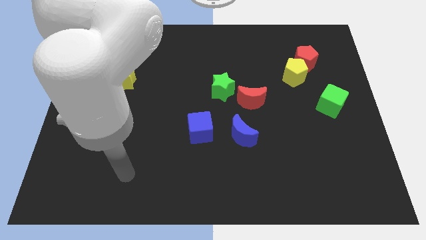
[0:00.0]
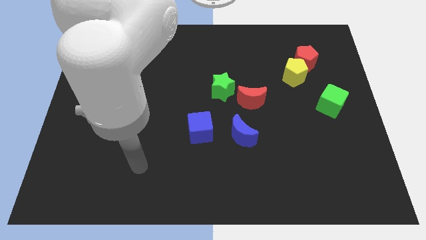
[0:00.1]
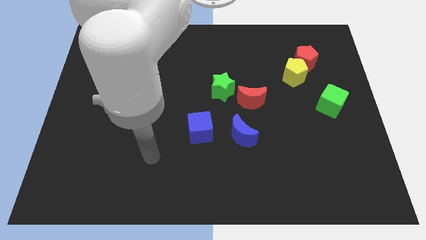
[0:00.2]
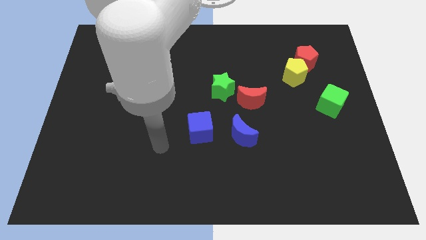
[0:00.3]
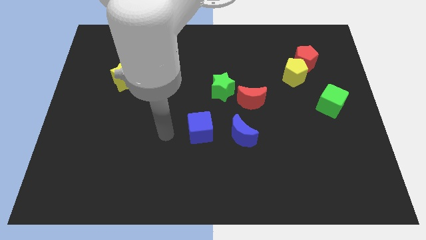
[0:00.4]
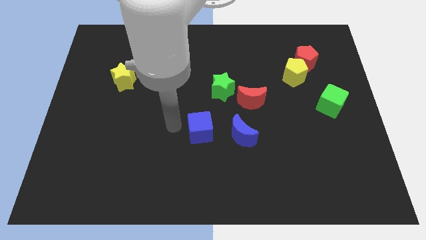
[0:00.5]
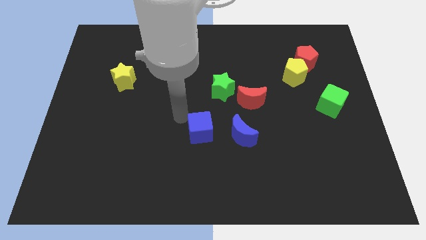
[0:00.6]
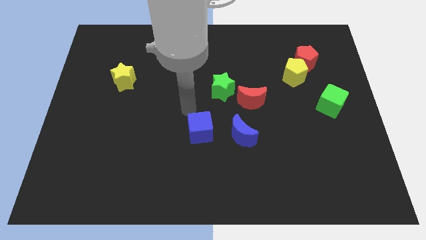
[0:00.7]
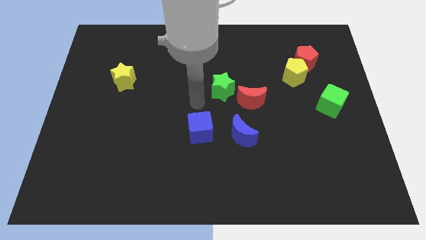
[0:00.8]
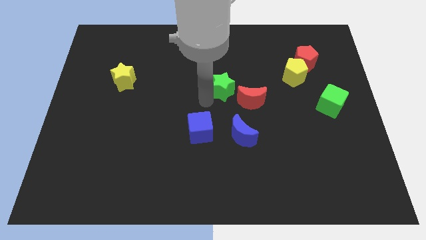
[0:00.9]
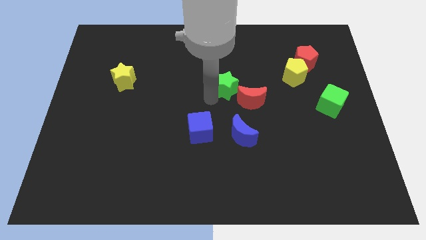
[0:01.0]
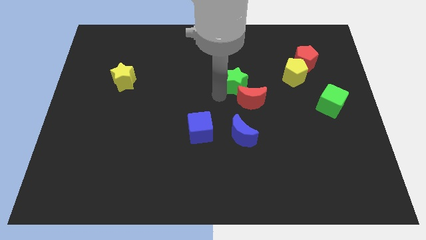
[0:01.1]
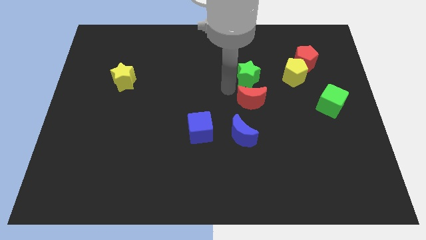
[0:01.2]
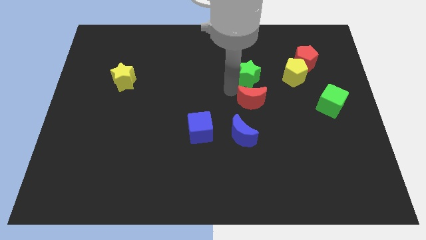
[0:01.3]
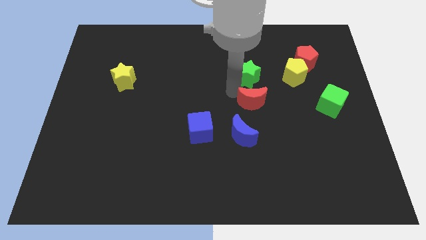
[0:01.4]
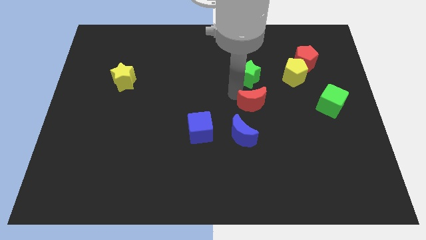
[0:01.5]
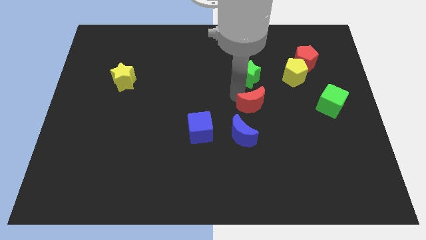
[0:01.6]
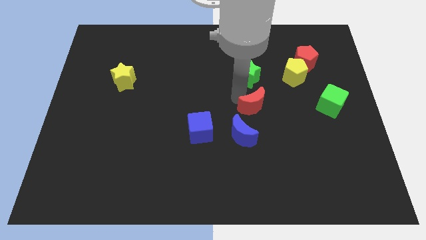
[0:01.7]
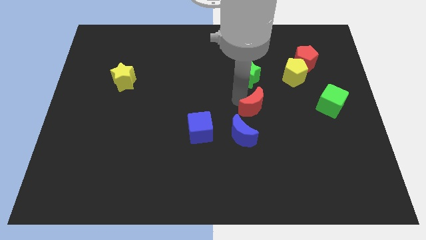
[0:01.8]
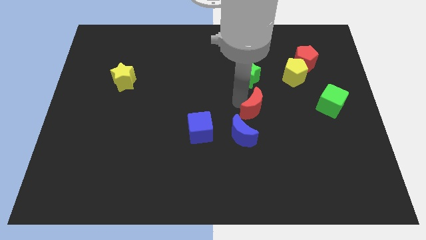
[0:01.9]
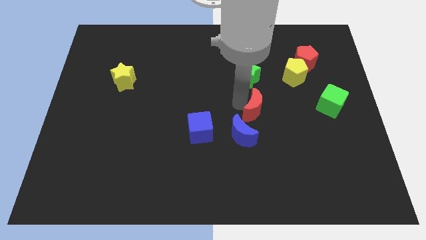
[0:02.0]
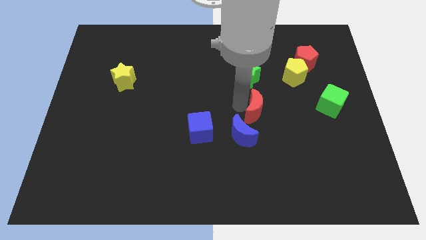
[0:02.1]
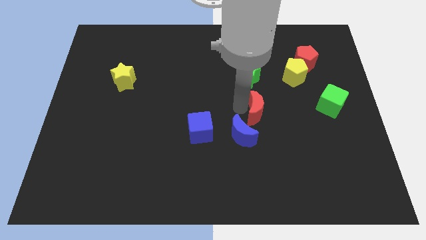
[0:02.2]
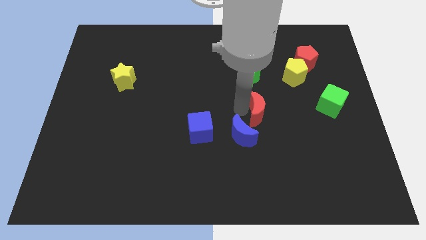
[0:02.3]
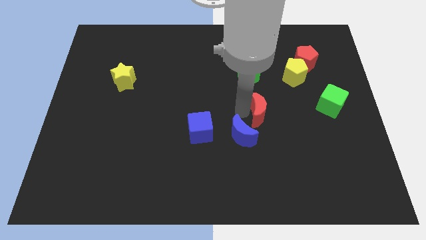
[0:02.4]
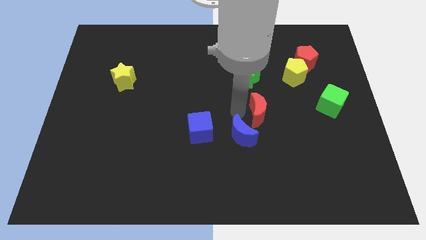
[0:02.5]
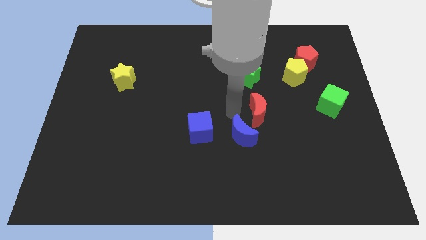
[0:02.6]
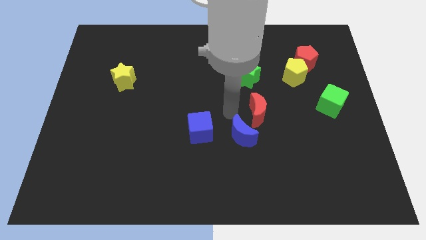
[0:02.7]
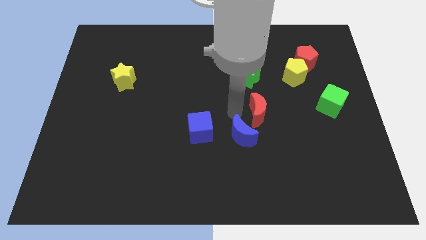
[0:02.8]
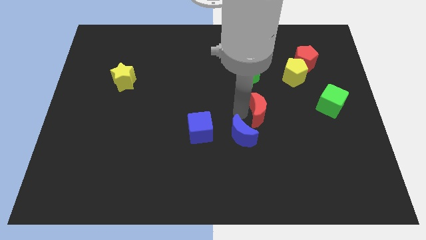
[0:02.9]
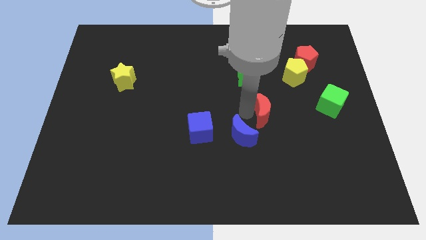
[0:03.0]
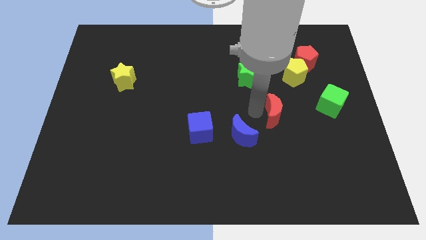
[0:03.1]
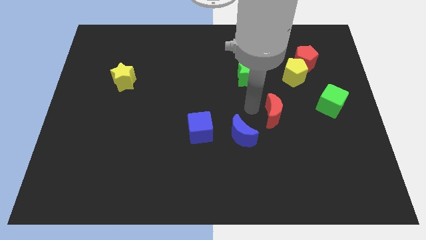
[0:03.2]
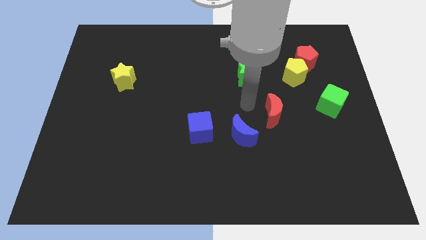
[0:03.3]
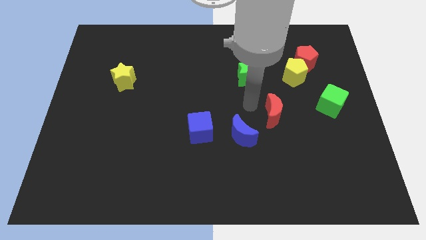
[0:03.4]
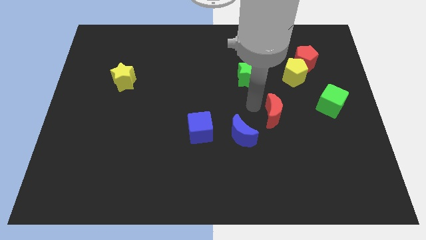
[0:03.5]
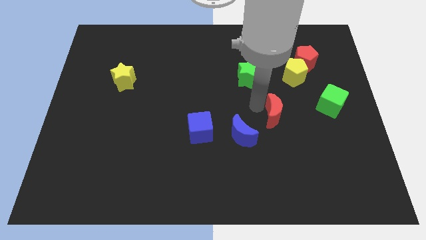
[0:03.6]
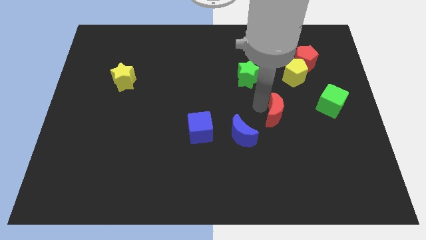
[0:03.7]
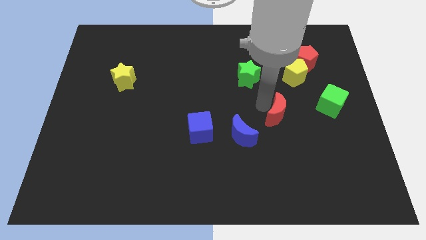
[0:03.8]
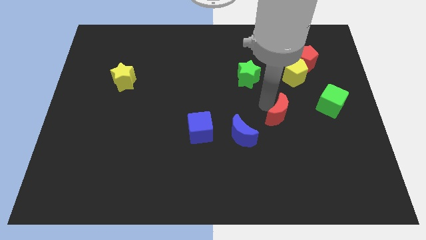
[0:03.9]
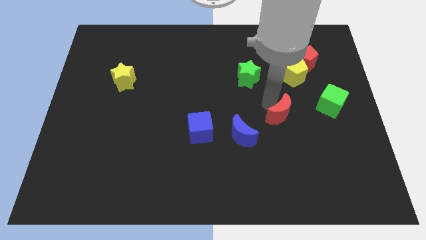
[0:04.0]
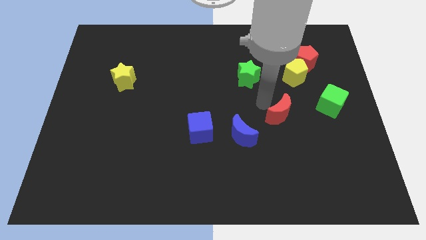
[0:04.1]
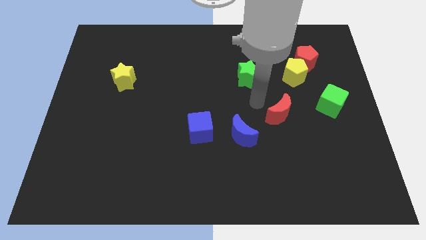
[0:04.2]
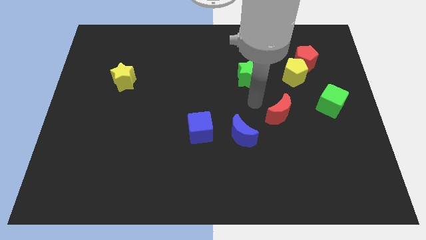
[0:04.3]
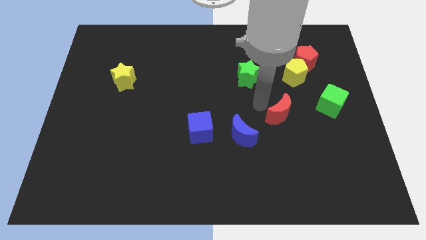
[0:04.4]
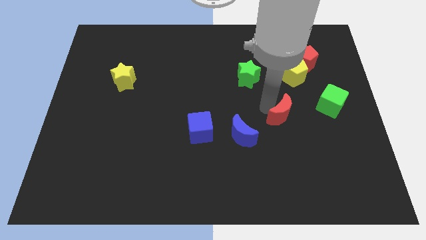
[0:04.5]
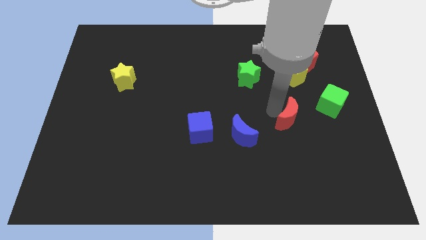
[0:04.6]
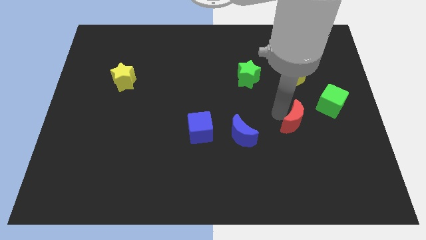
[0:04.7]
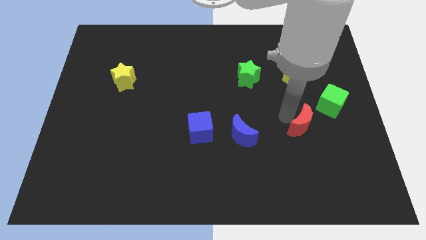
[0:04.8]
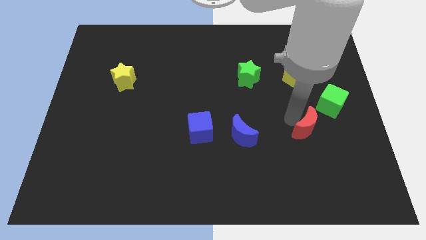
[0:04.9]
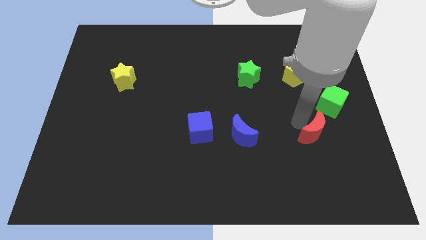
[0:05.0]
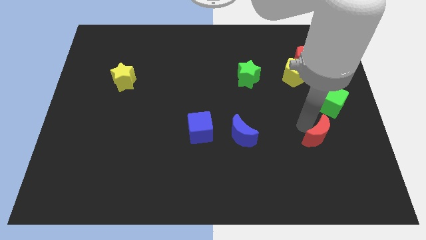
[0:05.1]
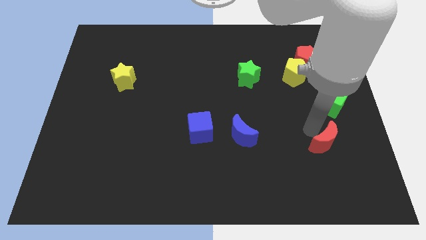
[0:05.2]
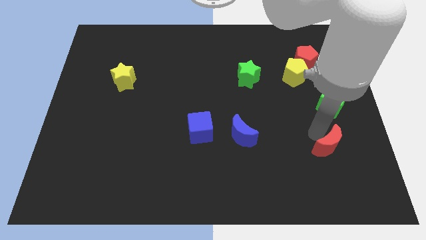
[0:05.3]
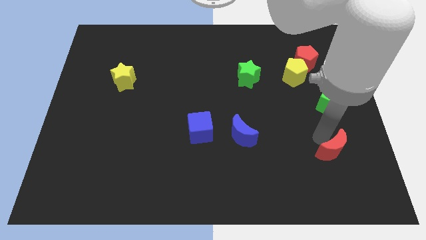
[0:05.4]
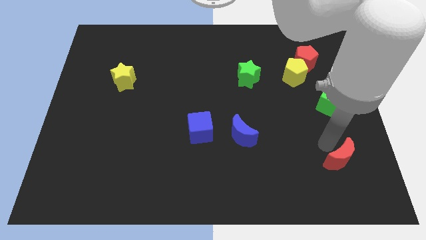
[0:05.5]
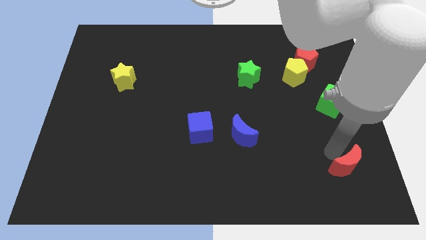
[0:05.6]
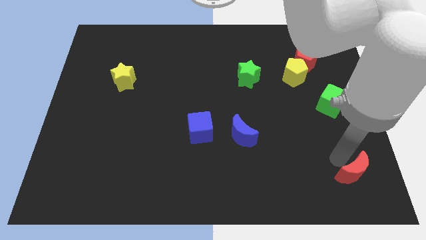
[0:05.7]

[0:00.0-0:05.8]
move the red moon to the bottom right

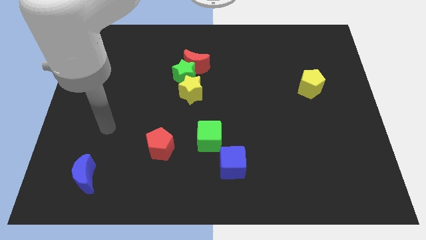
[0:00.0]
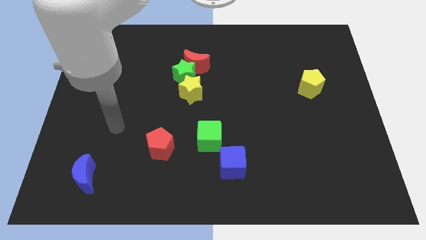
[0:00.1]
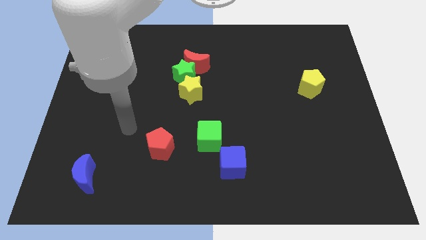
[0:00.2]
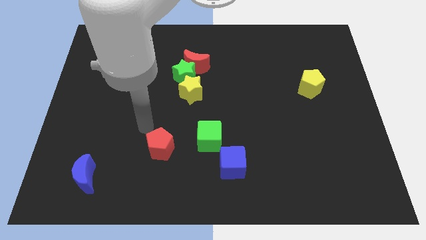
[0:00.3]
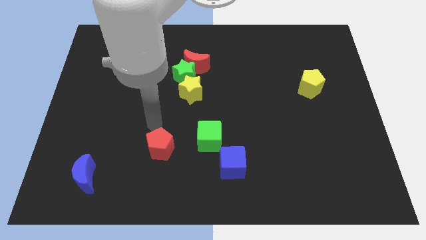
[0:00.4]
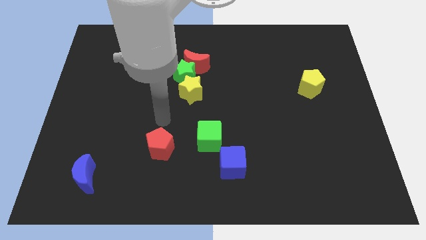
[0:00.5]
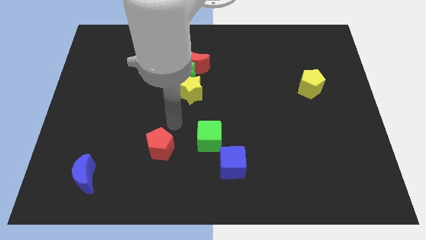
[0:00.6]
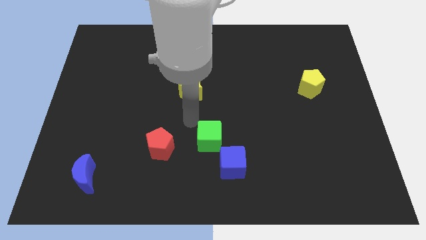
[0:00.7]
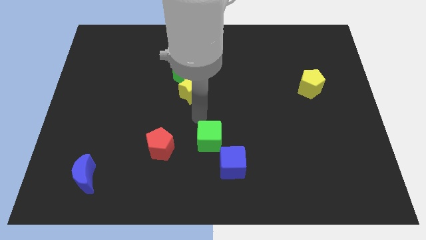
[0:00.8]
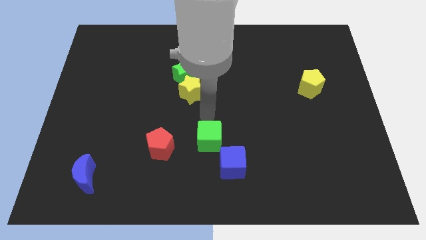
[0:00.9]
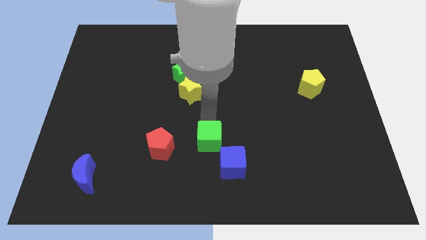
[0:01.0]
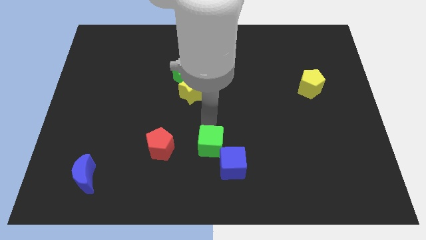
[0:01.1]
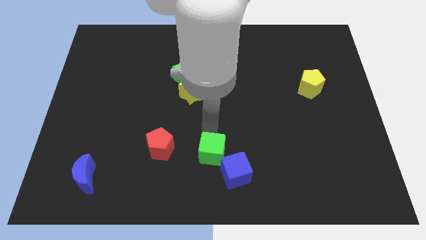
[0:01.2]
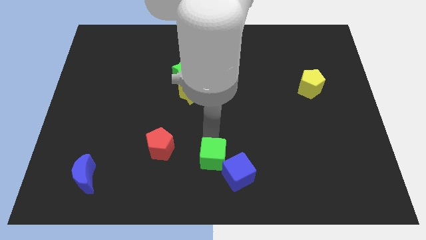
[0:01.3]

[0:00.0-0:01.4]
push the green cube to the bottom side
